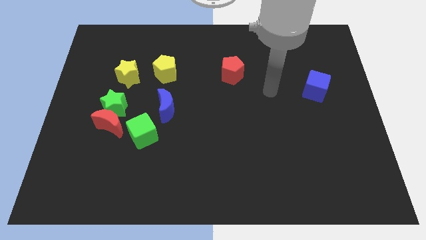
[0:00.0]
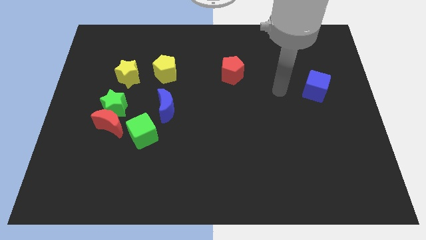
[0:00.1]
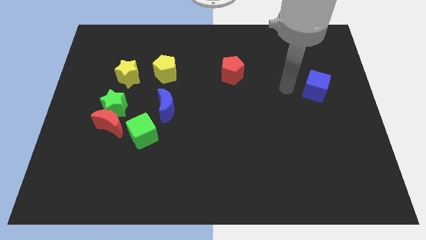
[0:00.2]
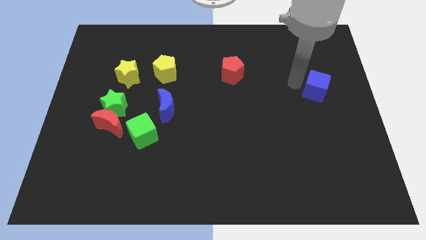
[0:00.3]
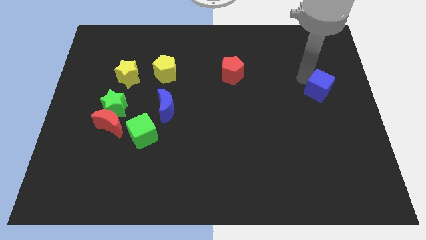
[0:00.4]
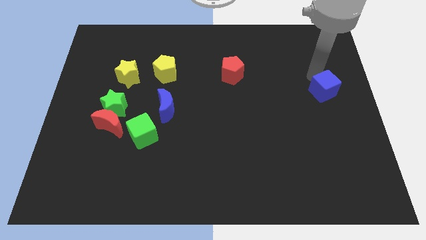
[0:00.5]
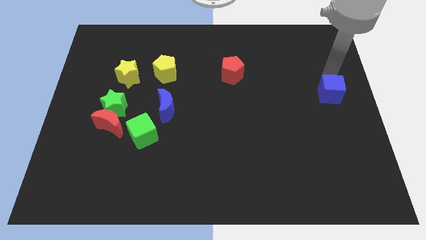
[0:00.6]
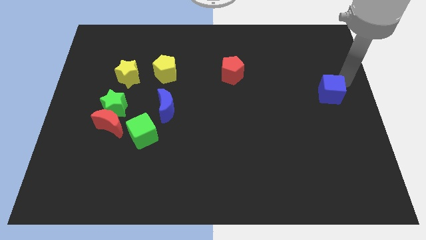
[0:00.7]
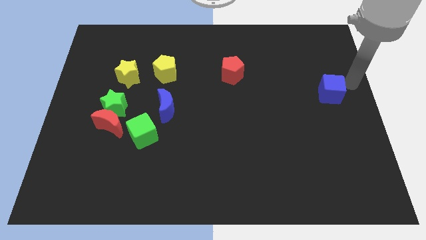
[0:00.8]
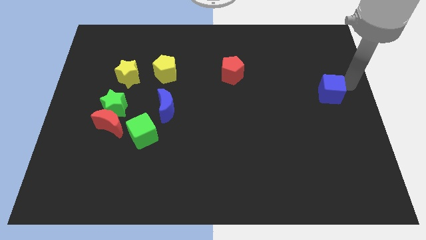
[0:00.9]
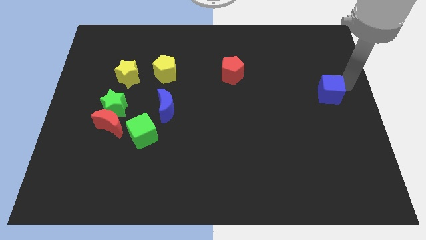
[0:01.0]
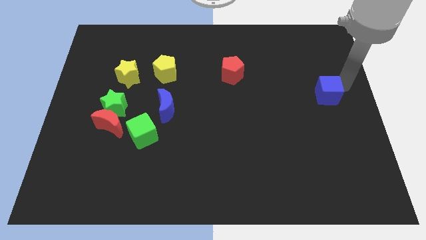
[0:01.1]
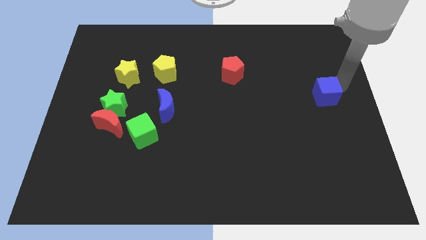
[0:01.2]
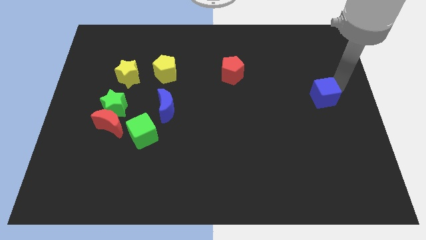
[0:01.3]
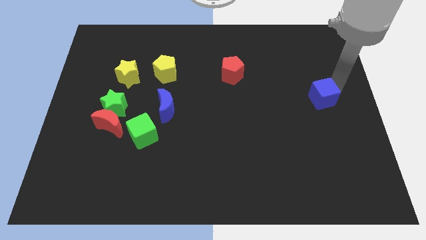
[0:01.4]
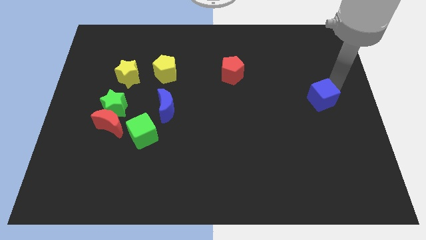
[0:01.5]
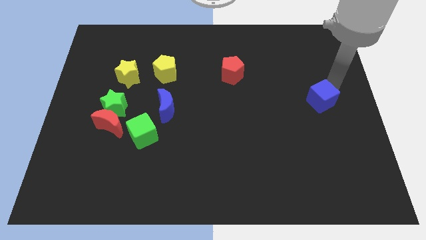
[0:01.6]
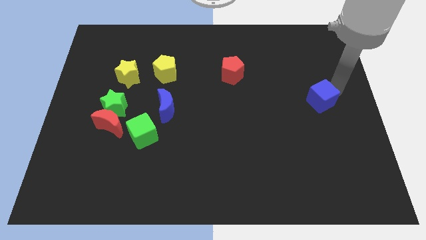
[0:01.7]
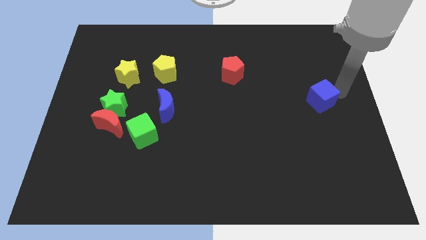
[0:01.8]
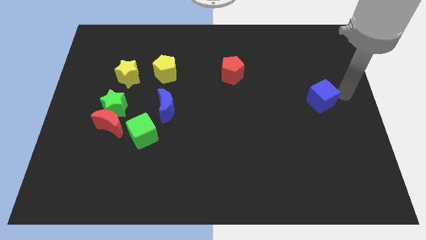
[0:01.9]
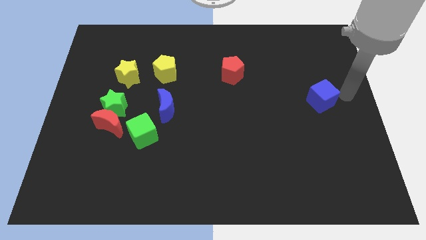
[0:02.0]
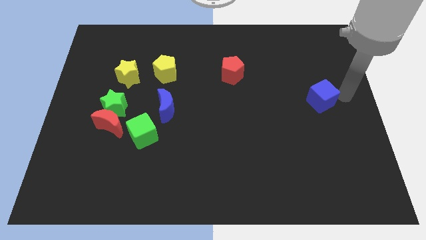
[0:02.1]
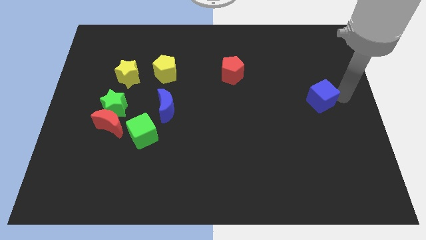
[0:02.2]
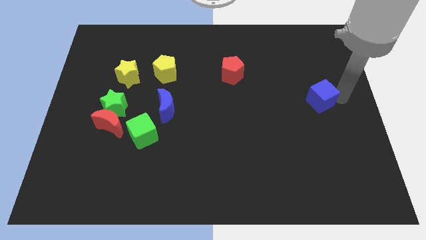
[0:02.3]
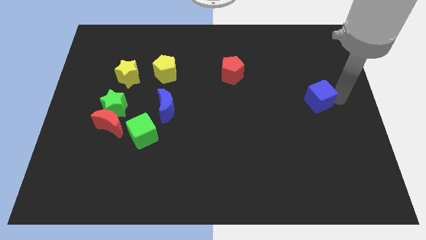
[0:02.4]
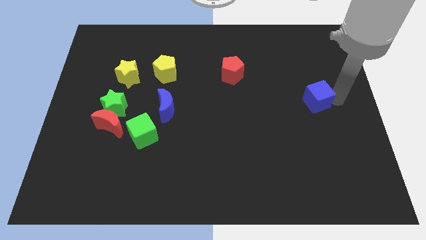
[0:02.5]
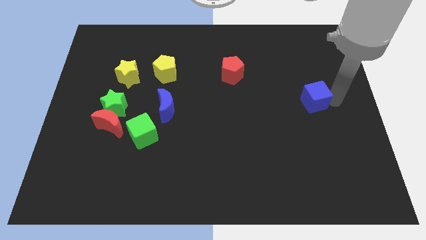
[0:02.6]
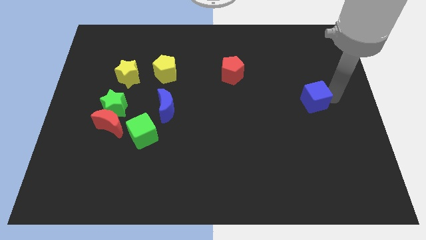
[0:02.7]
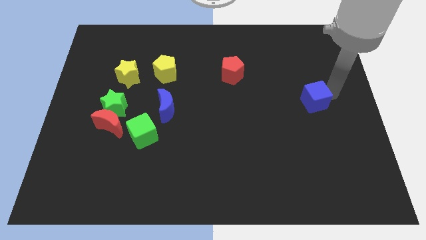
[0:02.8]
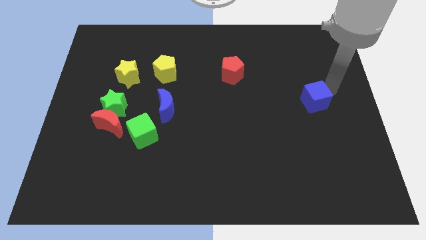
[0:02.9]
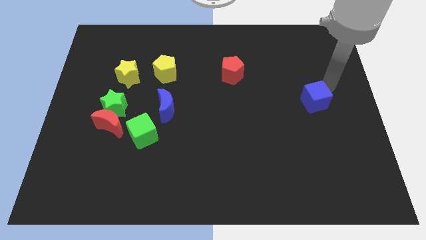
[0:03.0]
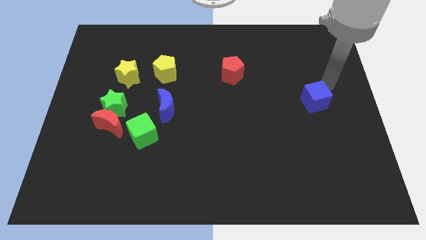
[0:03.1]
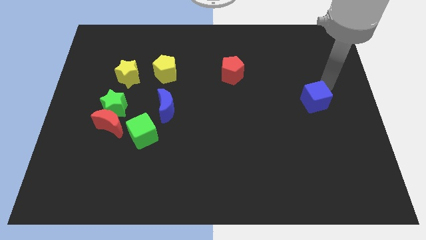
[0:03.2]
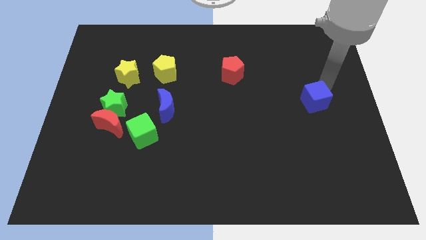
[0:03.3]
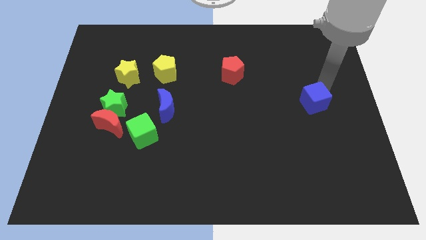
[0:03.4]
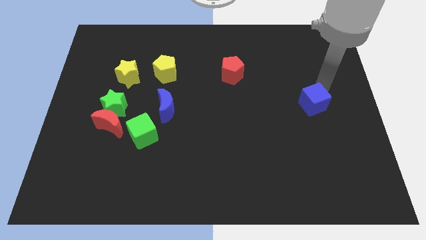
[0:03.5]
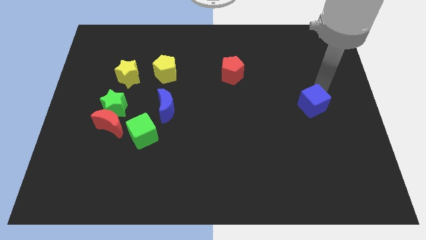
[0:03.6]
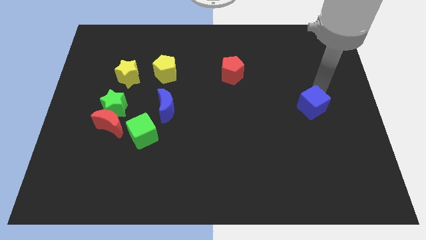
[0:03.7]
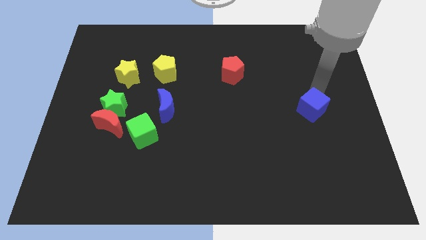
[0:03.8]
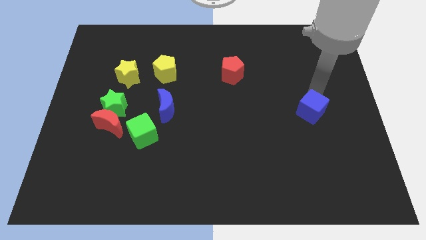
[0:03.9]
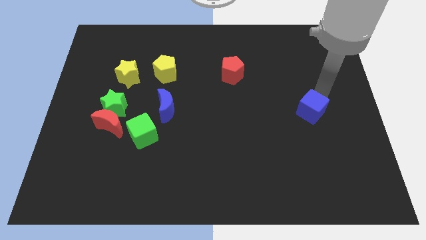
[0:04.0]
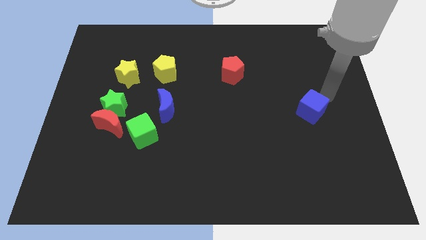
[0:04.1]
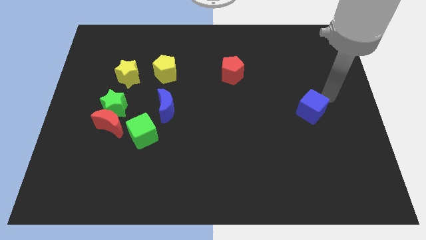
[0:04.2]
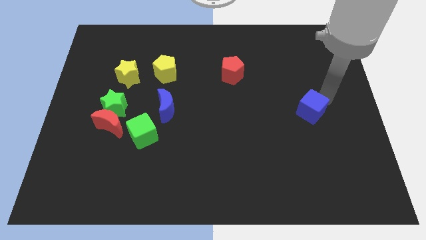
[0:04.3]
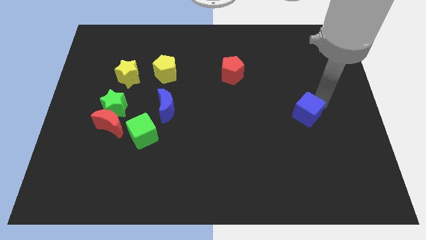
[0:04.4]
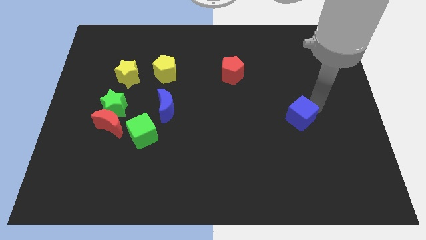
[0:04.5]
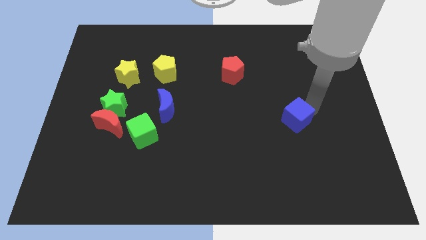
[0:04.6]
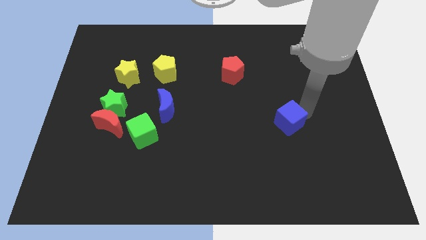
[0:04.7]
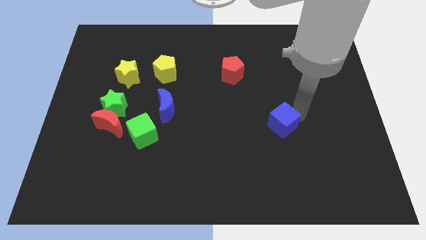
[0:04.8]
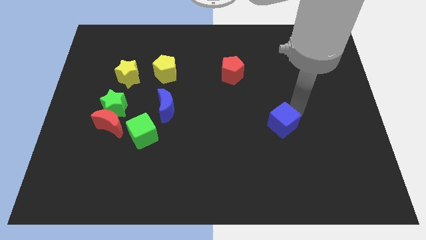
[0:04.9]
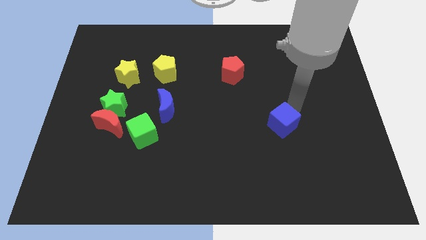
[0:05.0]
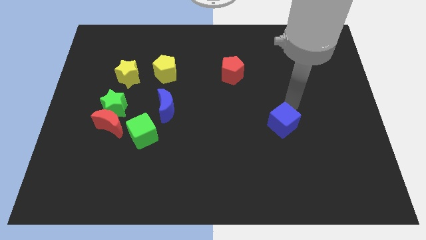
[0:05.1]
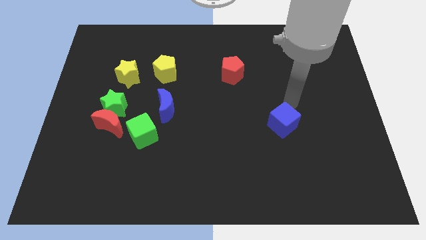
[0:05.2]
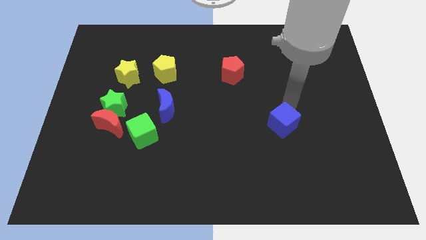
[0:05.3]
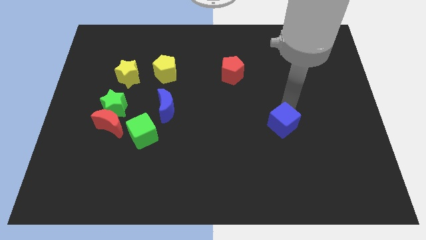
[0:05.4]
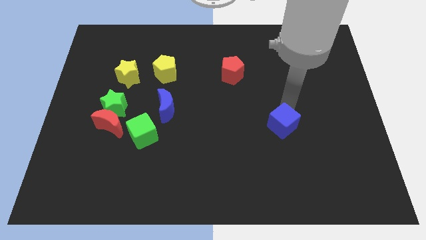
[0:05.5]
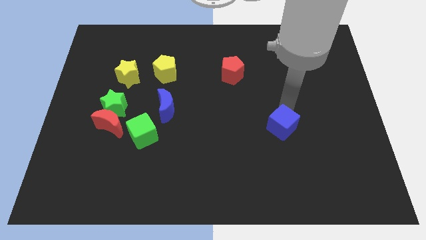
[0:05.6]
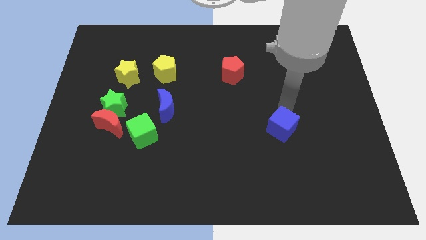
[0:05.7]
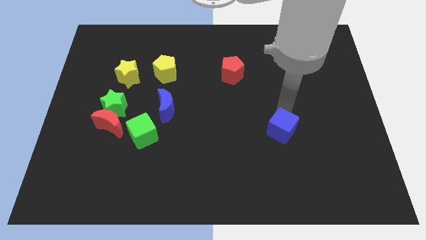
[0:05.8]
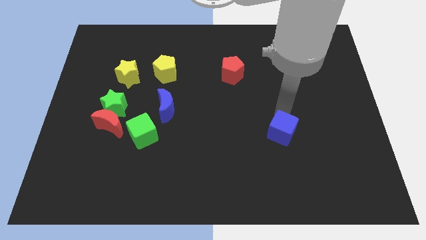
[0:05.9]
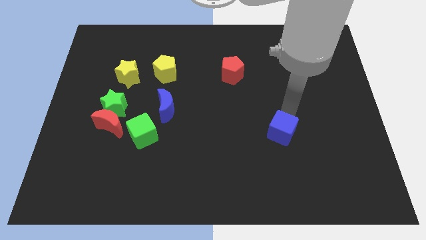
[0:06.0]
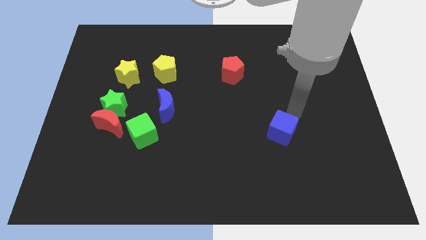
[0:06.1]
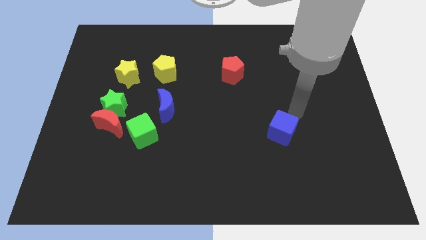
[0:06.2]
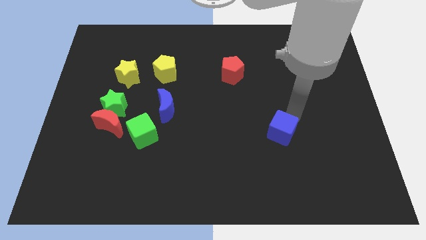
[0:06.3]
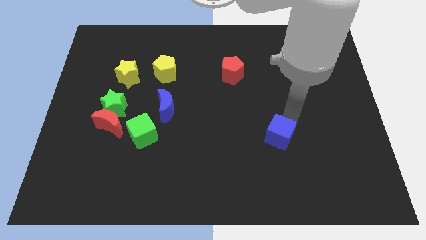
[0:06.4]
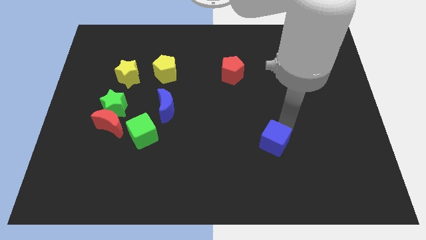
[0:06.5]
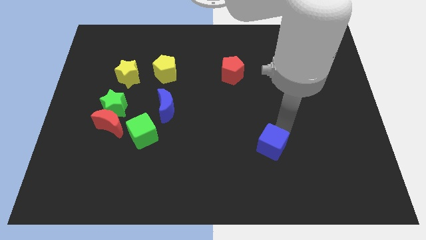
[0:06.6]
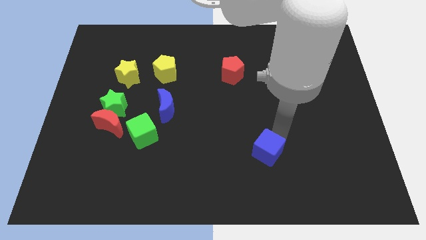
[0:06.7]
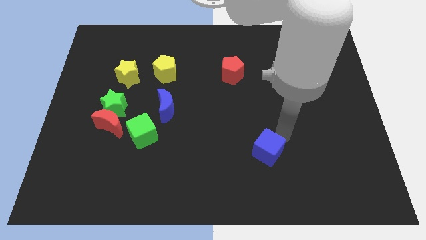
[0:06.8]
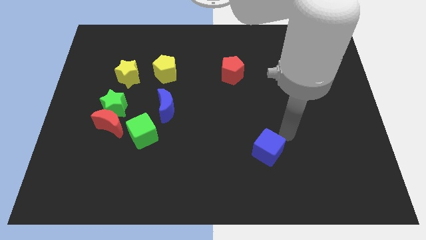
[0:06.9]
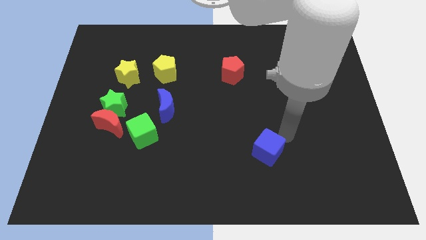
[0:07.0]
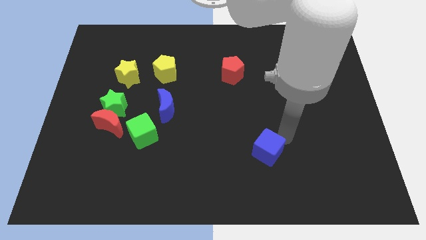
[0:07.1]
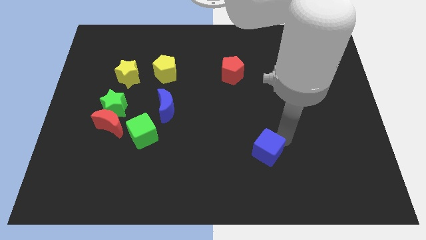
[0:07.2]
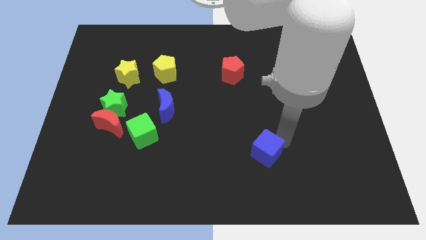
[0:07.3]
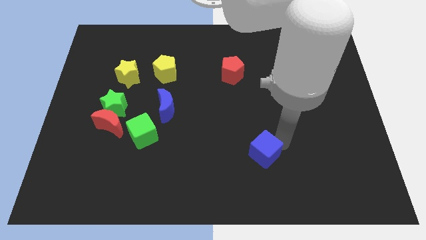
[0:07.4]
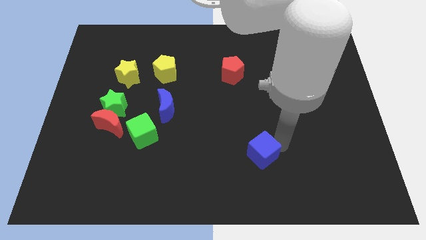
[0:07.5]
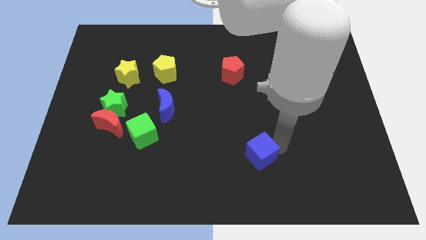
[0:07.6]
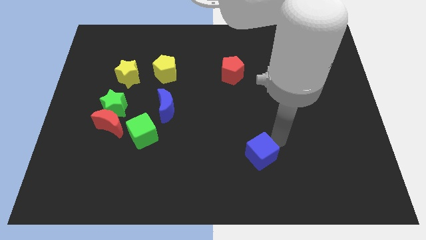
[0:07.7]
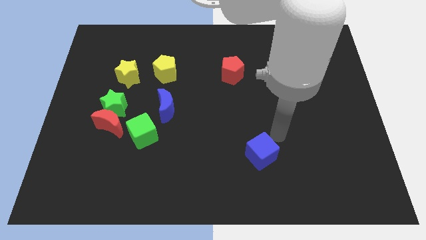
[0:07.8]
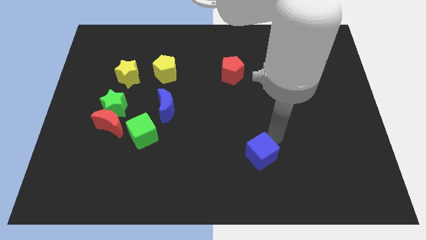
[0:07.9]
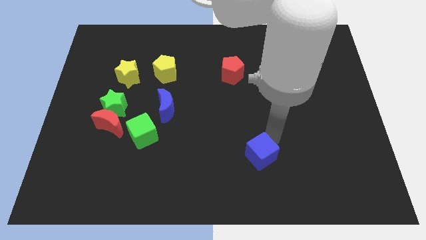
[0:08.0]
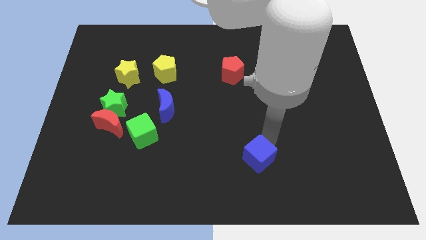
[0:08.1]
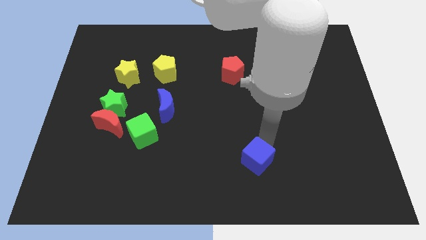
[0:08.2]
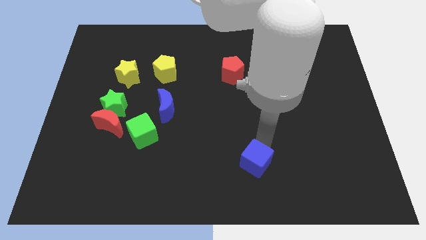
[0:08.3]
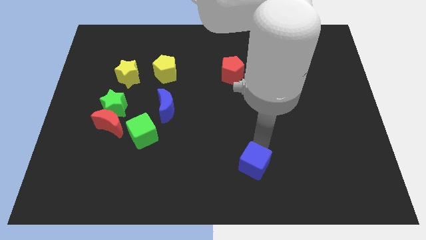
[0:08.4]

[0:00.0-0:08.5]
slide the blue cube to the bottom side
